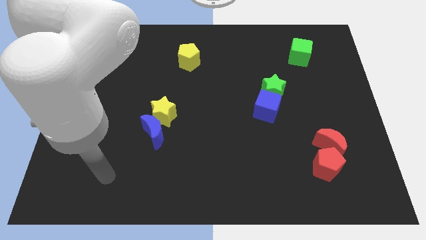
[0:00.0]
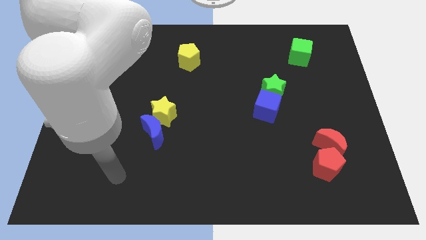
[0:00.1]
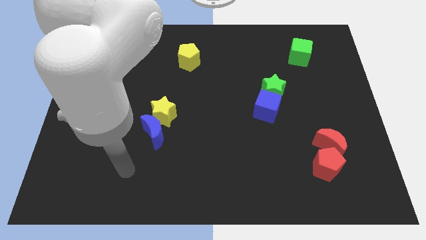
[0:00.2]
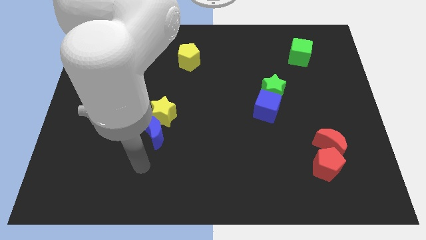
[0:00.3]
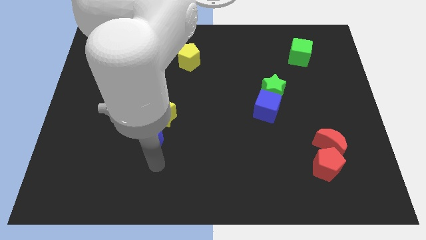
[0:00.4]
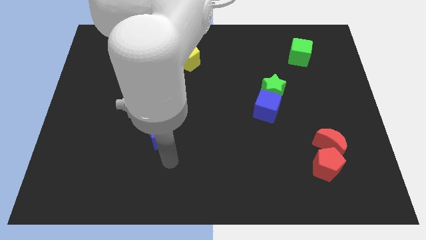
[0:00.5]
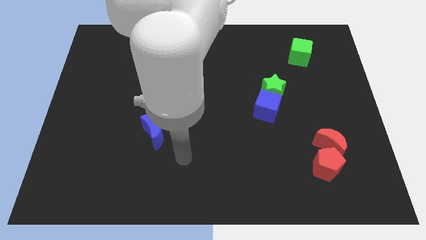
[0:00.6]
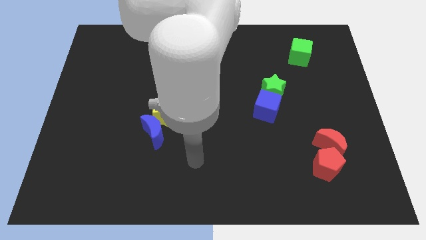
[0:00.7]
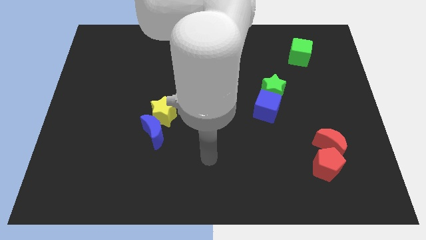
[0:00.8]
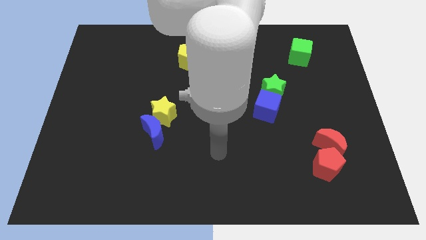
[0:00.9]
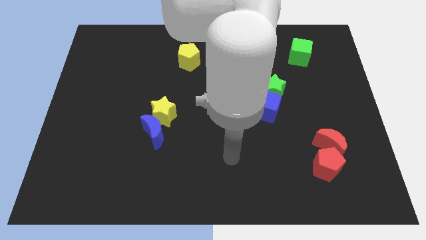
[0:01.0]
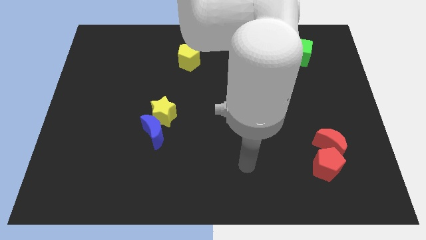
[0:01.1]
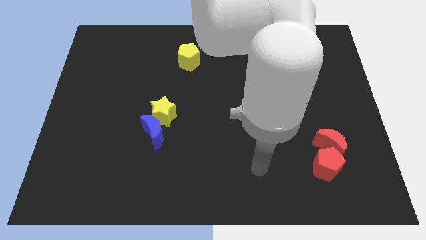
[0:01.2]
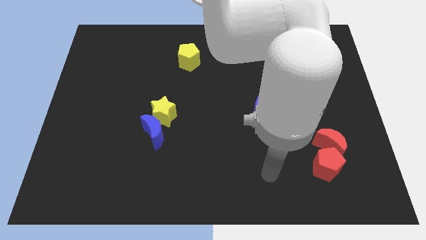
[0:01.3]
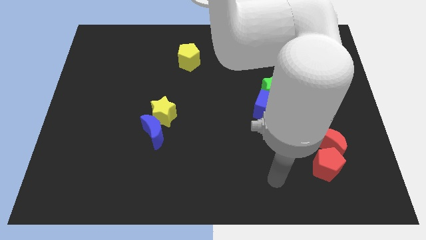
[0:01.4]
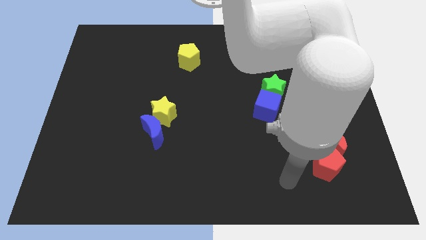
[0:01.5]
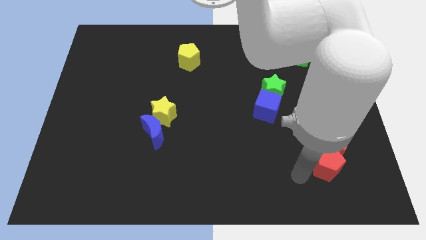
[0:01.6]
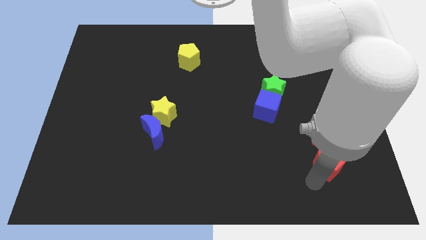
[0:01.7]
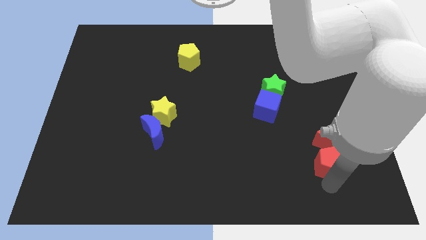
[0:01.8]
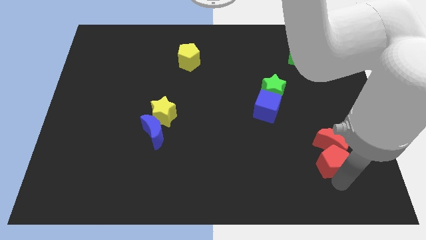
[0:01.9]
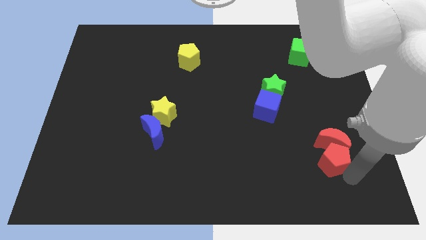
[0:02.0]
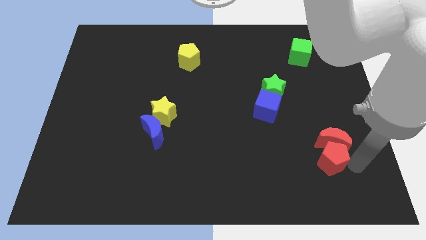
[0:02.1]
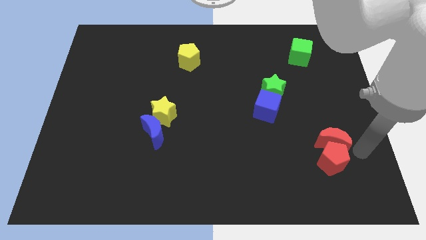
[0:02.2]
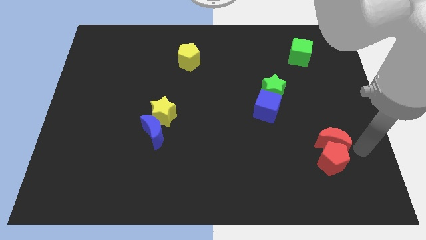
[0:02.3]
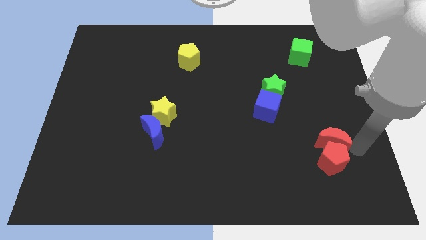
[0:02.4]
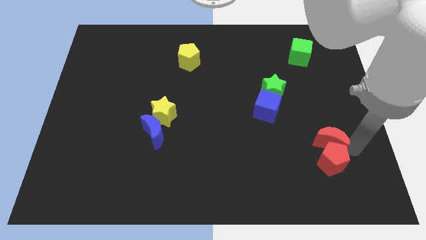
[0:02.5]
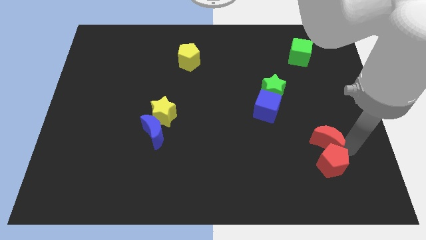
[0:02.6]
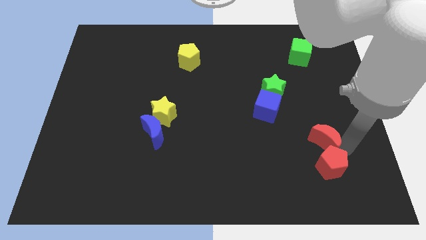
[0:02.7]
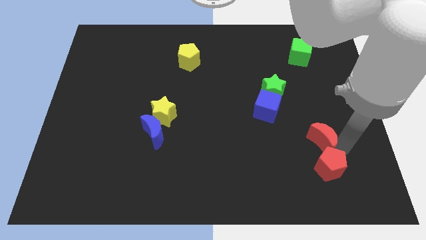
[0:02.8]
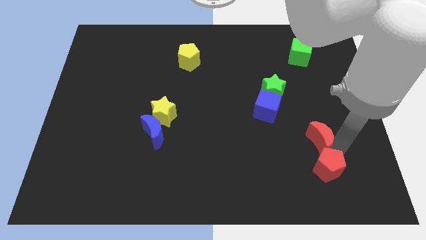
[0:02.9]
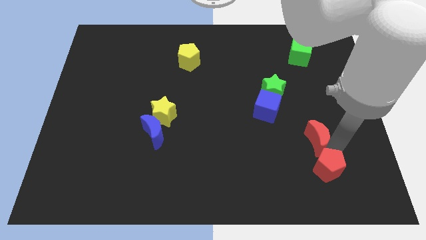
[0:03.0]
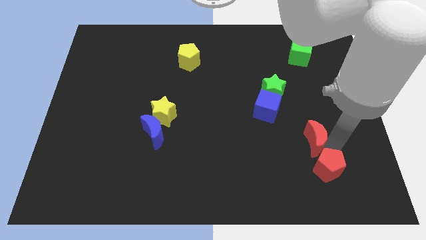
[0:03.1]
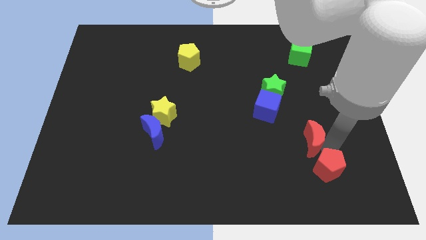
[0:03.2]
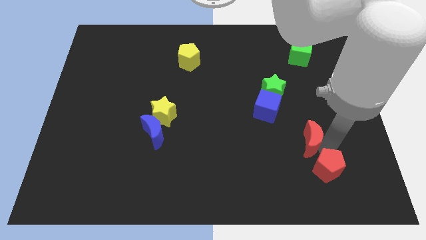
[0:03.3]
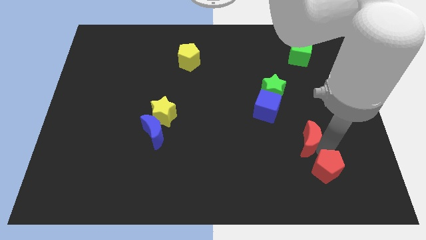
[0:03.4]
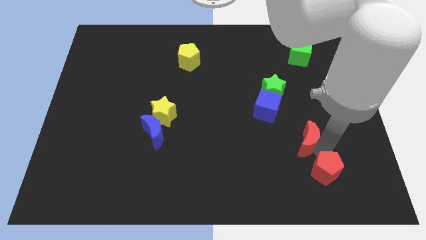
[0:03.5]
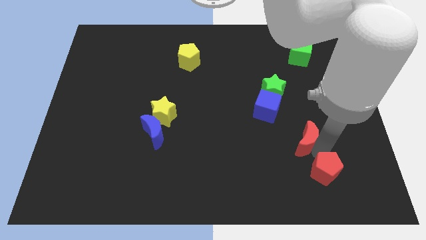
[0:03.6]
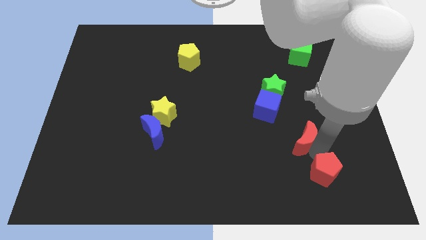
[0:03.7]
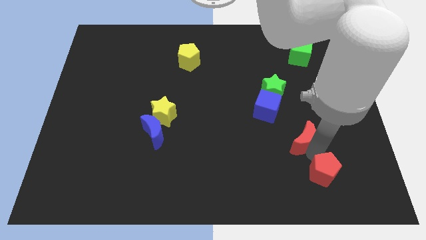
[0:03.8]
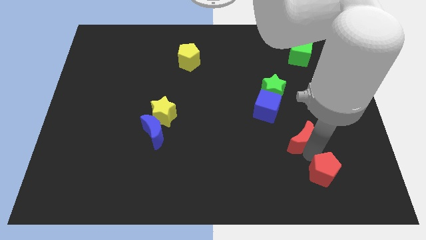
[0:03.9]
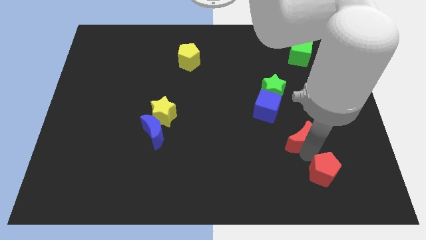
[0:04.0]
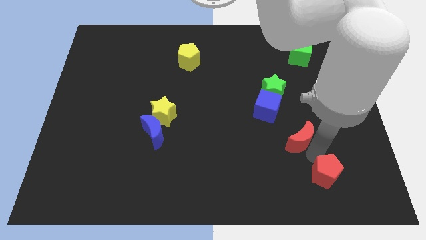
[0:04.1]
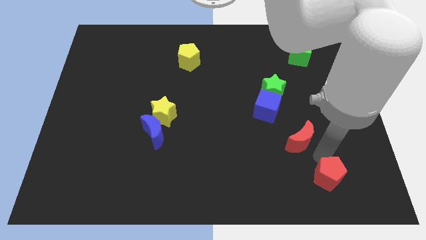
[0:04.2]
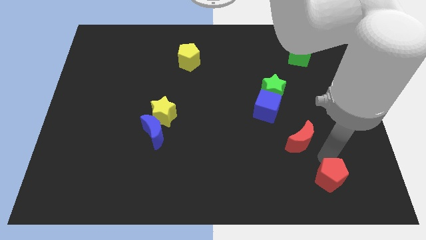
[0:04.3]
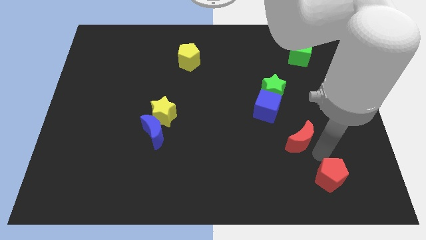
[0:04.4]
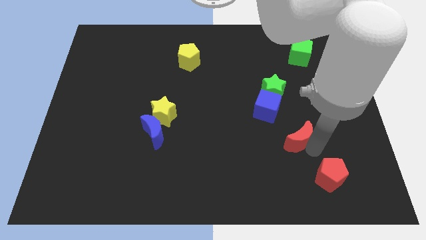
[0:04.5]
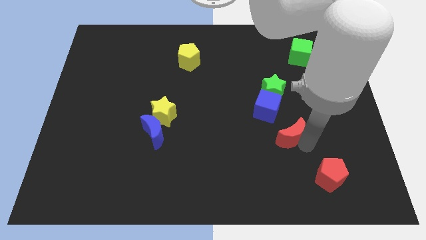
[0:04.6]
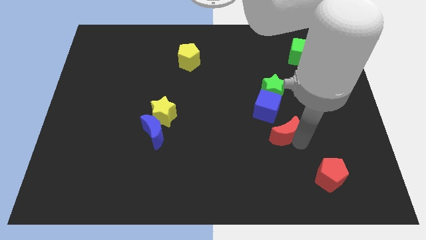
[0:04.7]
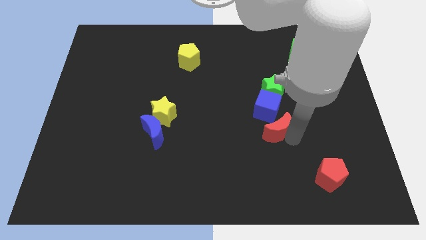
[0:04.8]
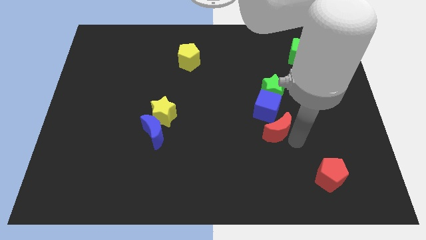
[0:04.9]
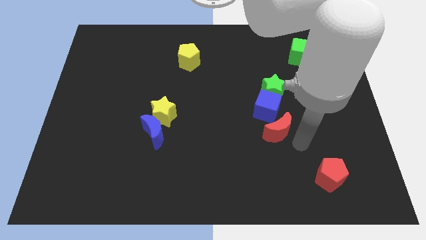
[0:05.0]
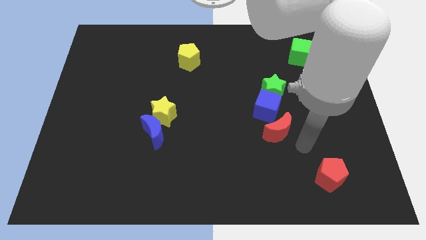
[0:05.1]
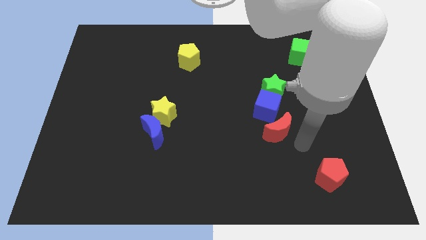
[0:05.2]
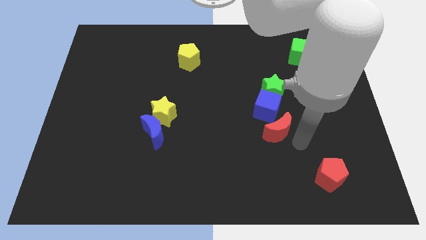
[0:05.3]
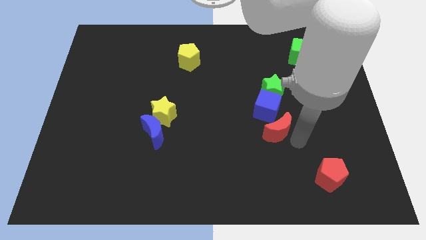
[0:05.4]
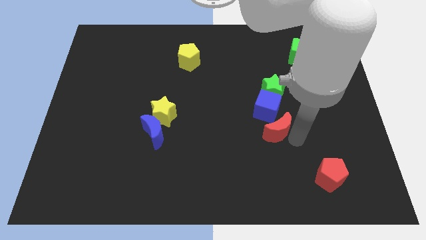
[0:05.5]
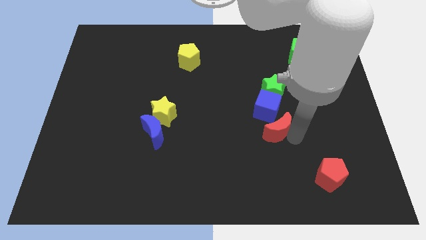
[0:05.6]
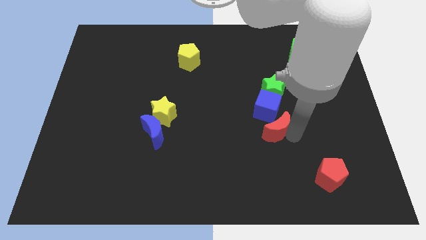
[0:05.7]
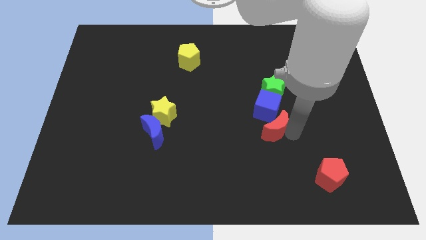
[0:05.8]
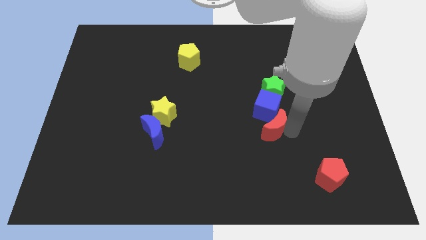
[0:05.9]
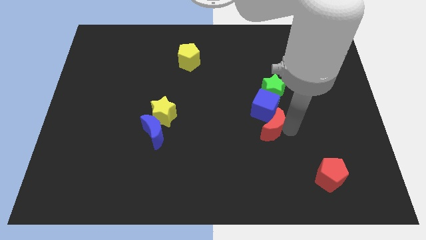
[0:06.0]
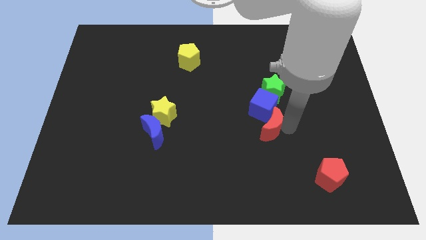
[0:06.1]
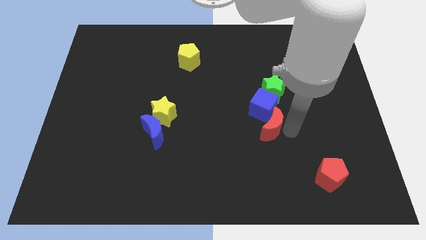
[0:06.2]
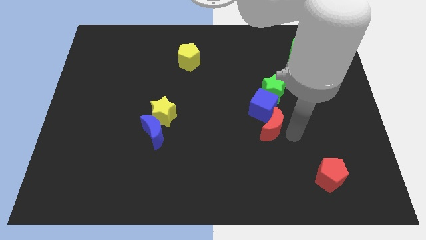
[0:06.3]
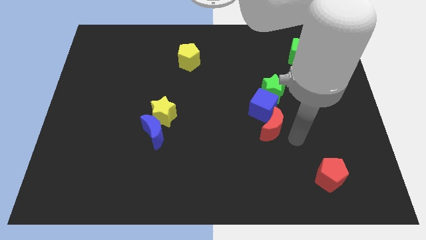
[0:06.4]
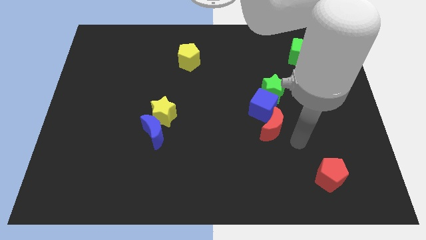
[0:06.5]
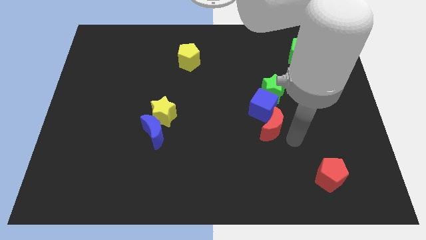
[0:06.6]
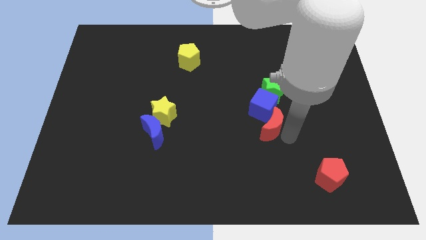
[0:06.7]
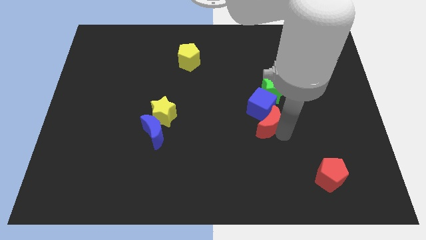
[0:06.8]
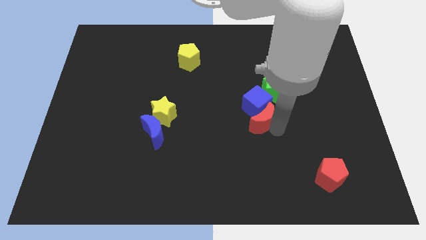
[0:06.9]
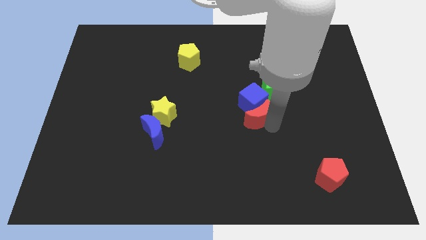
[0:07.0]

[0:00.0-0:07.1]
push the red moon to the center of the board
